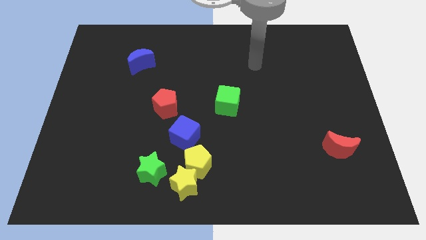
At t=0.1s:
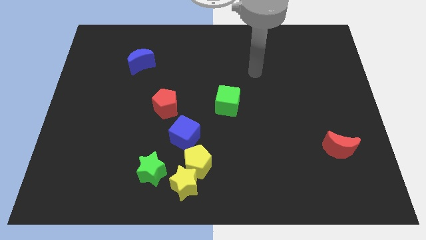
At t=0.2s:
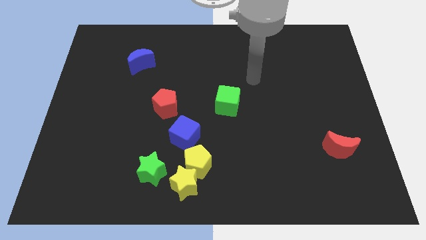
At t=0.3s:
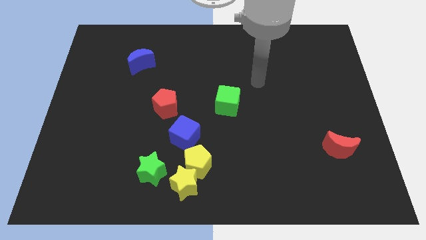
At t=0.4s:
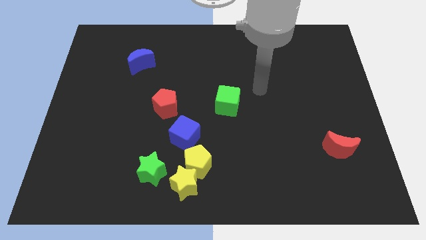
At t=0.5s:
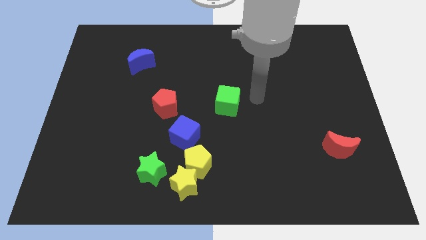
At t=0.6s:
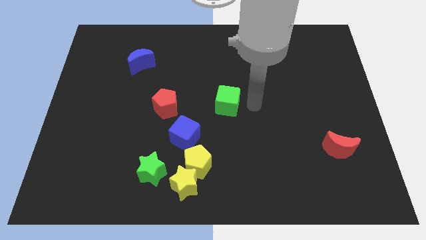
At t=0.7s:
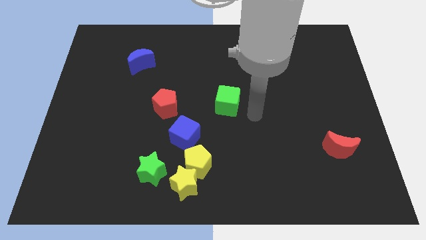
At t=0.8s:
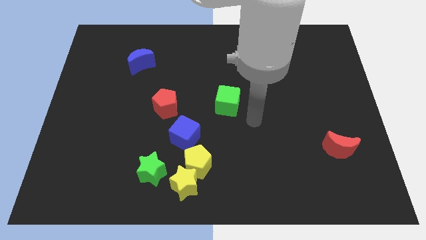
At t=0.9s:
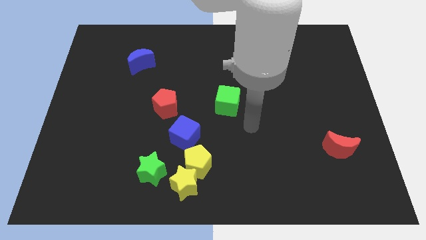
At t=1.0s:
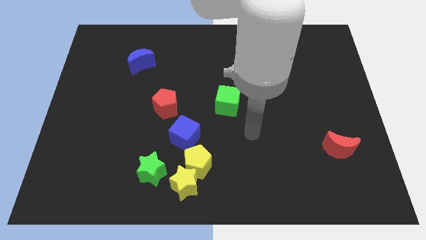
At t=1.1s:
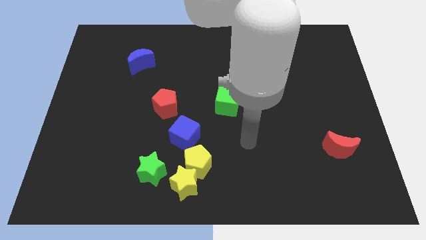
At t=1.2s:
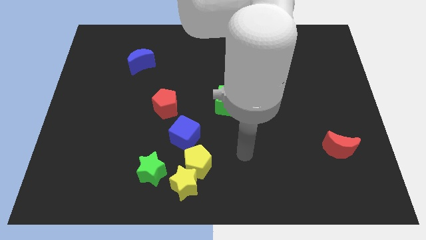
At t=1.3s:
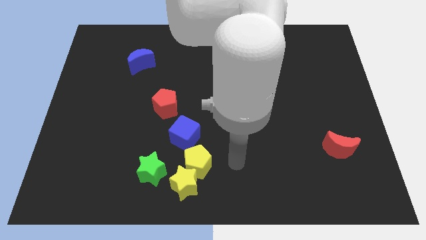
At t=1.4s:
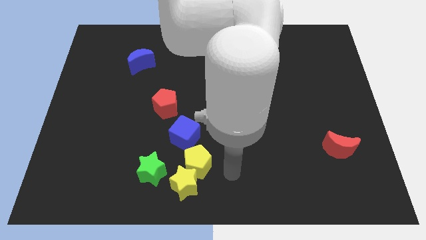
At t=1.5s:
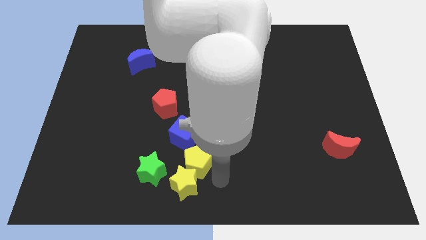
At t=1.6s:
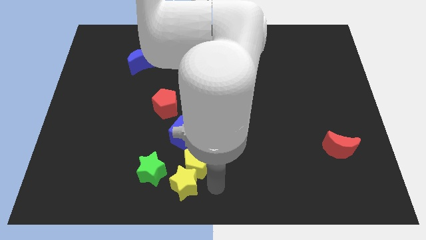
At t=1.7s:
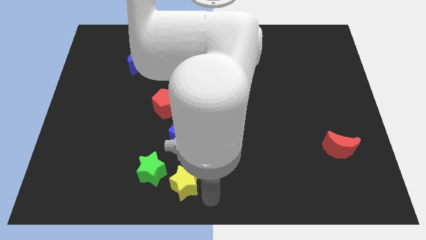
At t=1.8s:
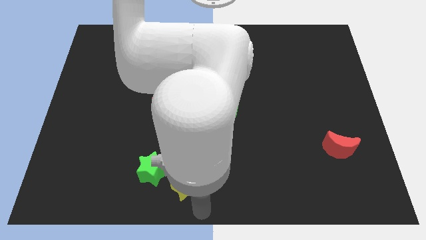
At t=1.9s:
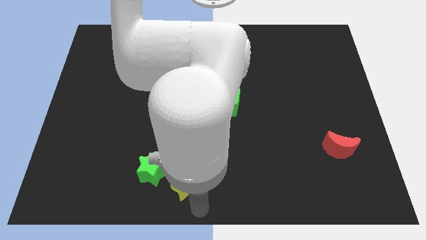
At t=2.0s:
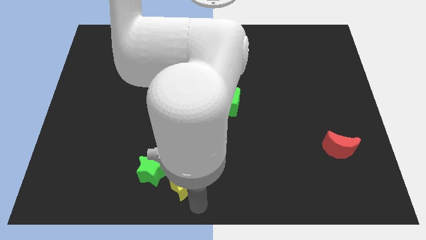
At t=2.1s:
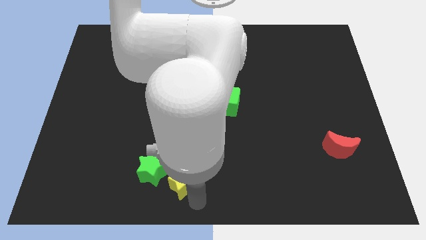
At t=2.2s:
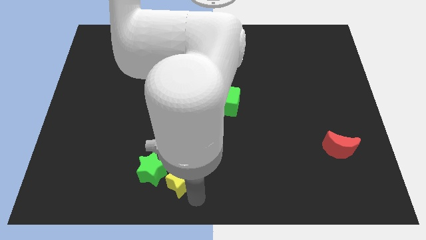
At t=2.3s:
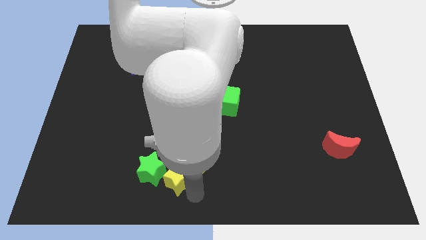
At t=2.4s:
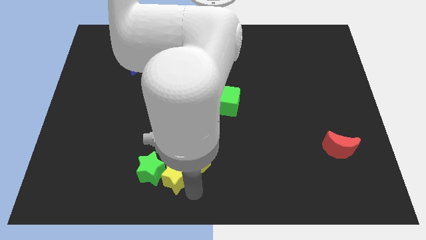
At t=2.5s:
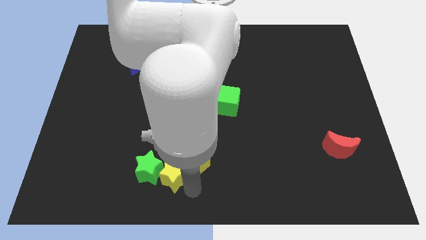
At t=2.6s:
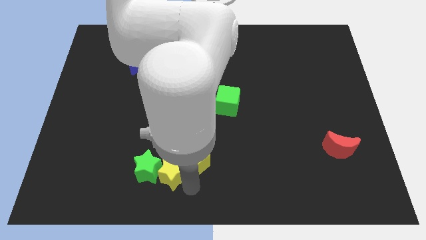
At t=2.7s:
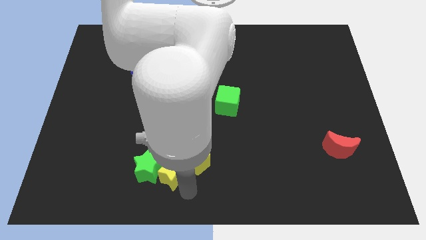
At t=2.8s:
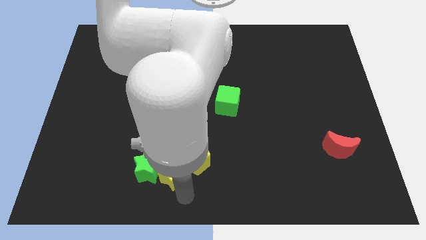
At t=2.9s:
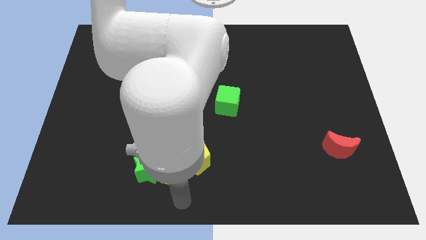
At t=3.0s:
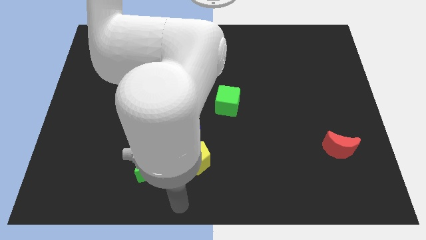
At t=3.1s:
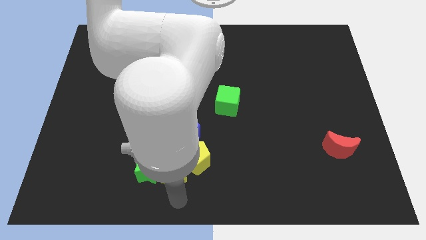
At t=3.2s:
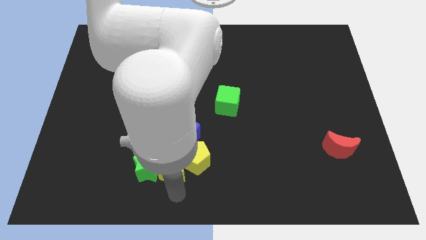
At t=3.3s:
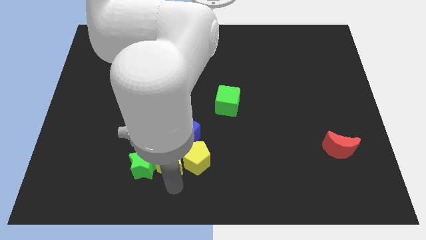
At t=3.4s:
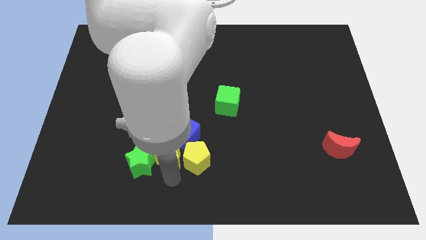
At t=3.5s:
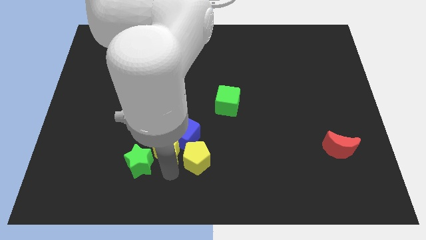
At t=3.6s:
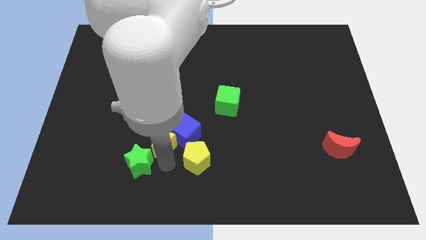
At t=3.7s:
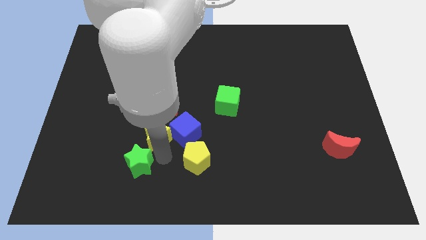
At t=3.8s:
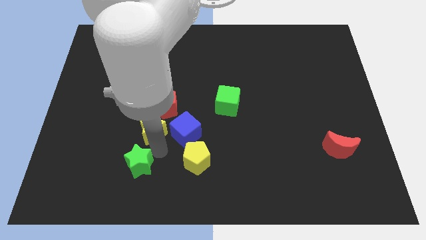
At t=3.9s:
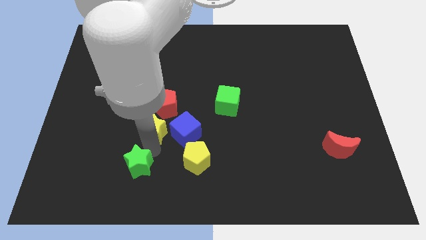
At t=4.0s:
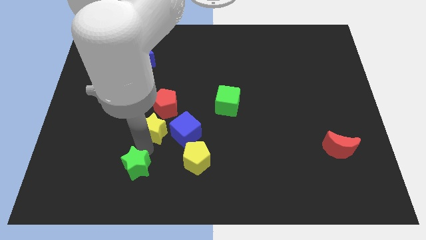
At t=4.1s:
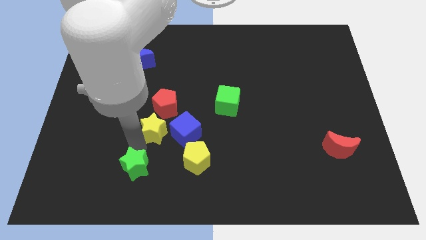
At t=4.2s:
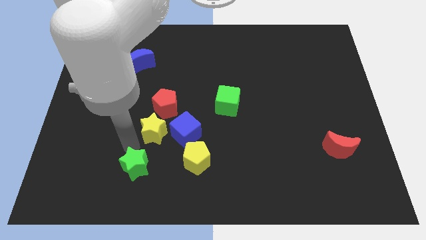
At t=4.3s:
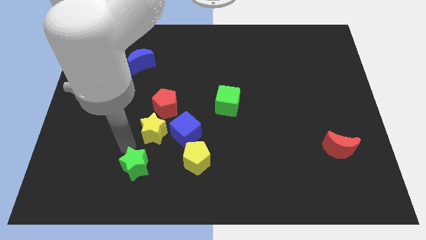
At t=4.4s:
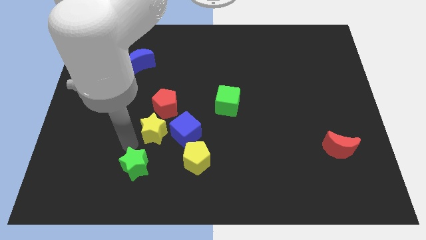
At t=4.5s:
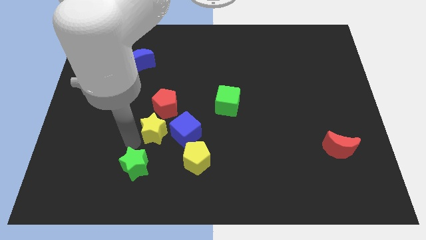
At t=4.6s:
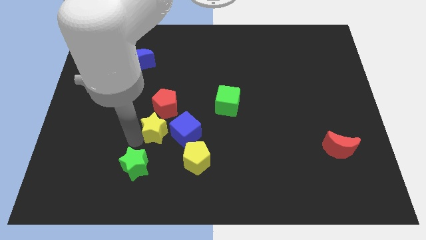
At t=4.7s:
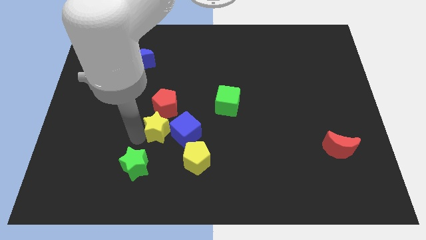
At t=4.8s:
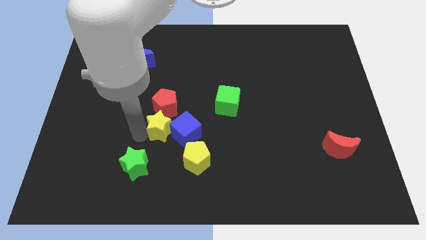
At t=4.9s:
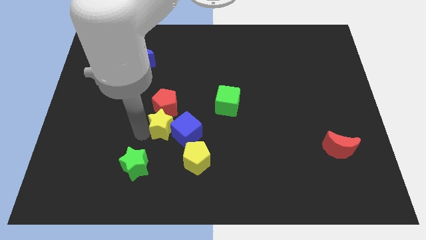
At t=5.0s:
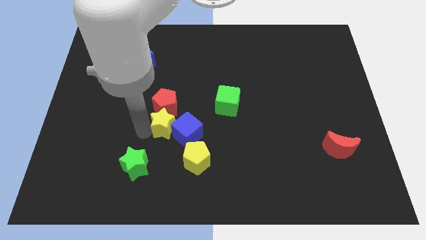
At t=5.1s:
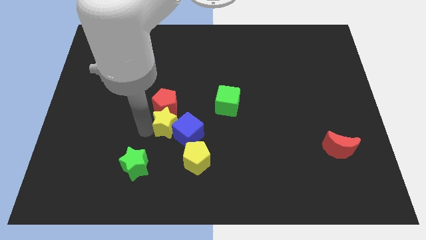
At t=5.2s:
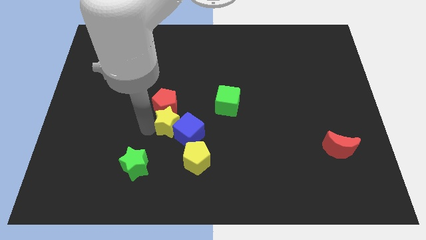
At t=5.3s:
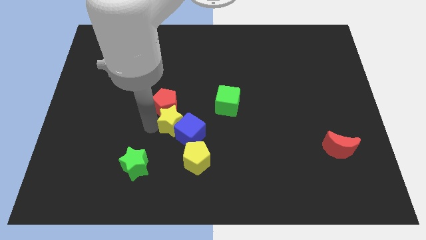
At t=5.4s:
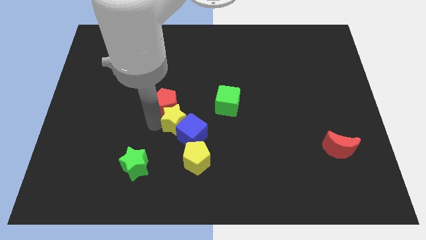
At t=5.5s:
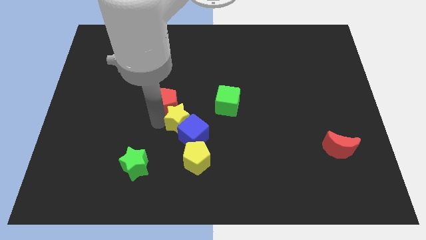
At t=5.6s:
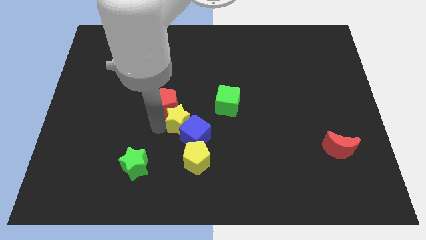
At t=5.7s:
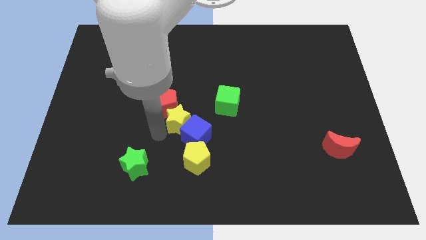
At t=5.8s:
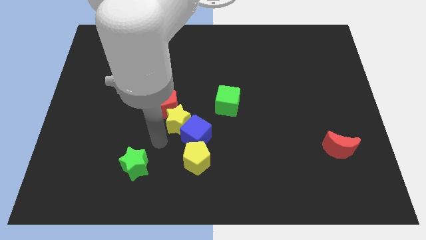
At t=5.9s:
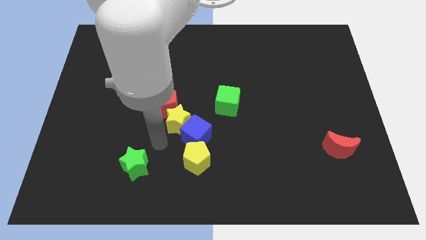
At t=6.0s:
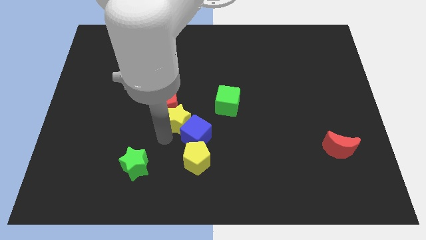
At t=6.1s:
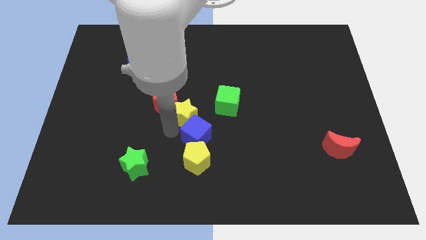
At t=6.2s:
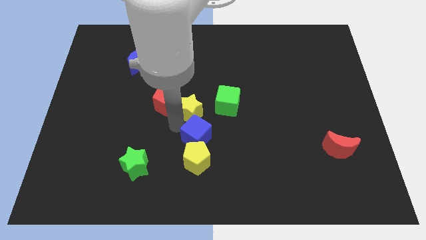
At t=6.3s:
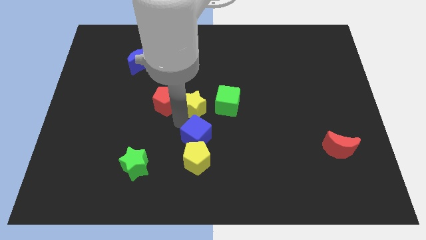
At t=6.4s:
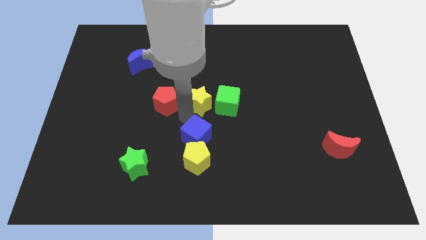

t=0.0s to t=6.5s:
put the yellow star to the top left side of the green cube
